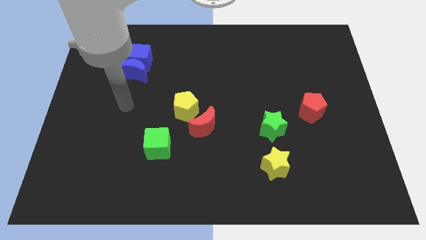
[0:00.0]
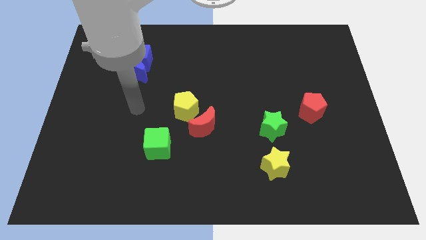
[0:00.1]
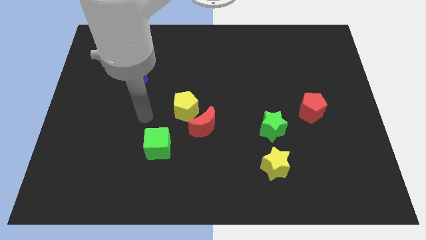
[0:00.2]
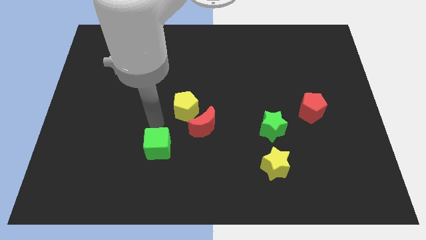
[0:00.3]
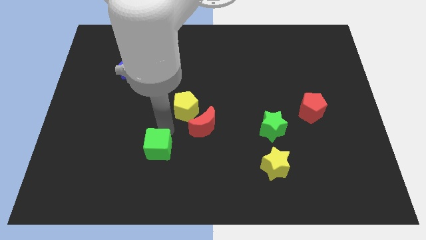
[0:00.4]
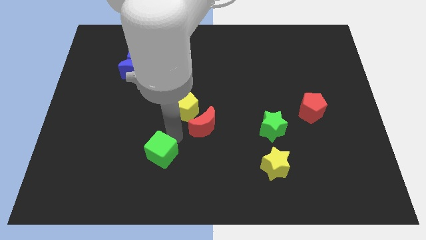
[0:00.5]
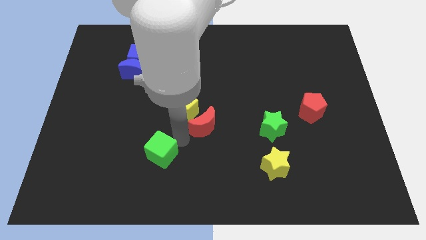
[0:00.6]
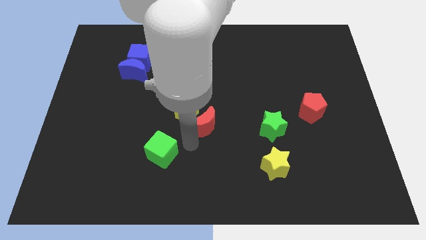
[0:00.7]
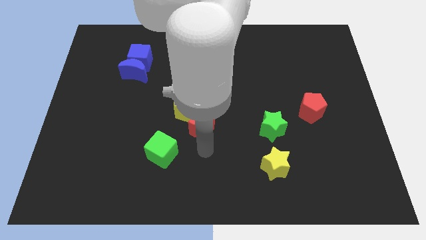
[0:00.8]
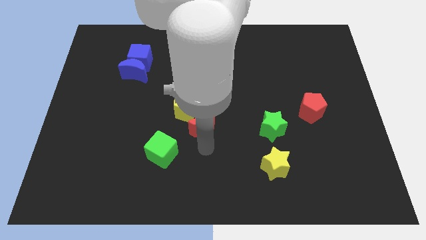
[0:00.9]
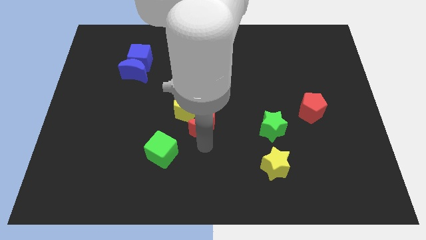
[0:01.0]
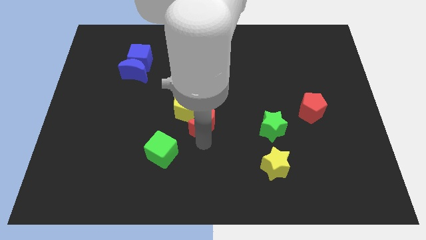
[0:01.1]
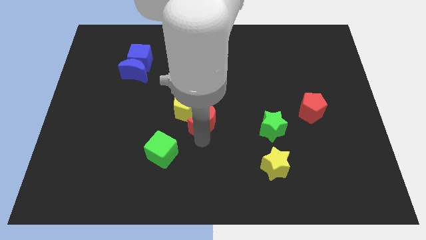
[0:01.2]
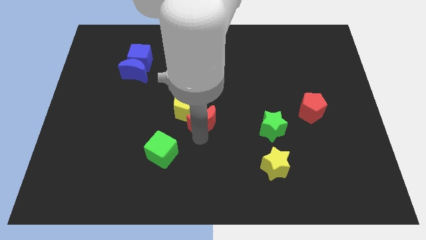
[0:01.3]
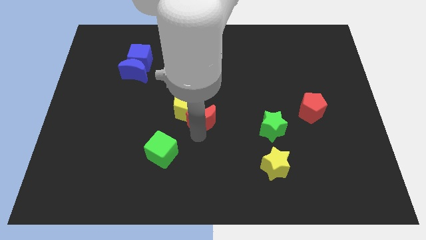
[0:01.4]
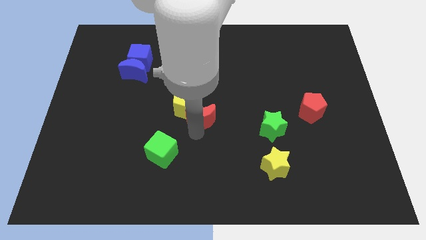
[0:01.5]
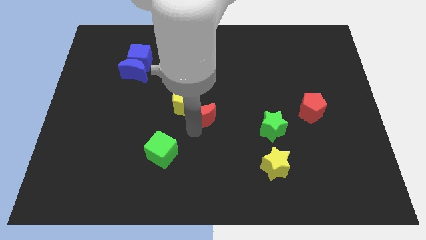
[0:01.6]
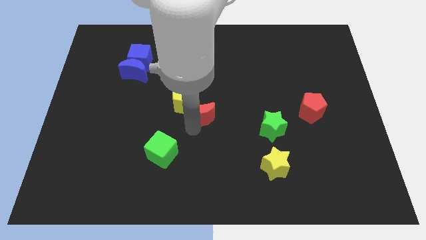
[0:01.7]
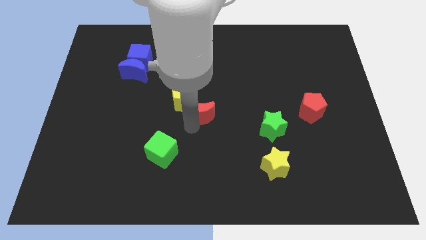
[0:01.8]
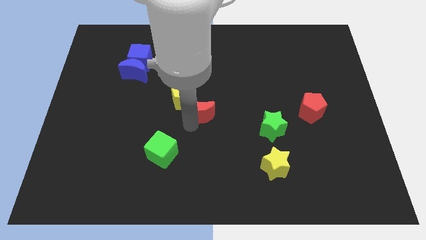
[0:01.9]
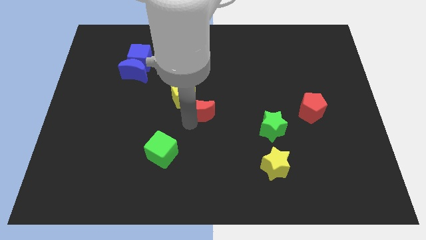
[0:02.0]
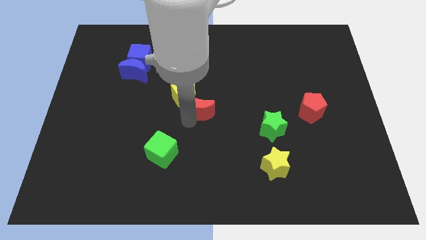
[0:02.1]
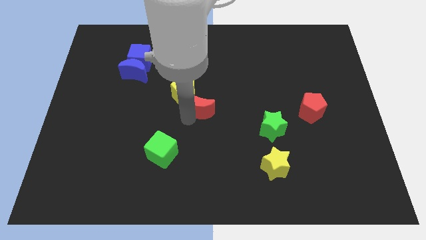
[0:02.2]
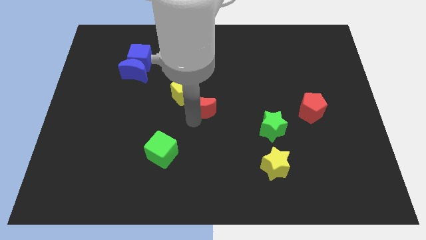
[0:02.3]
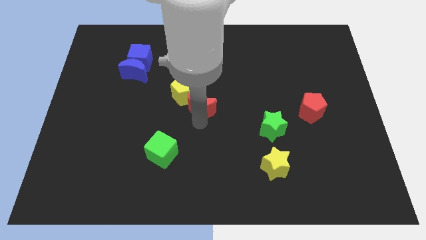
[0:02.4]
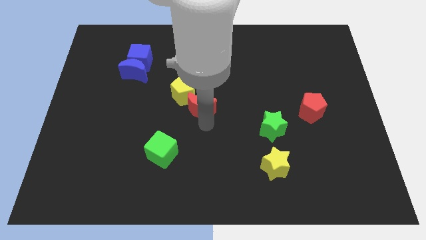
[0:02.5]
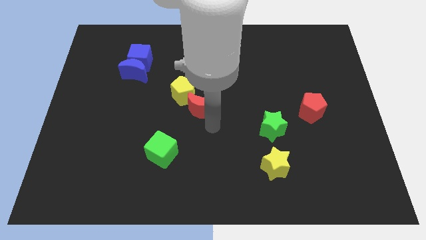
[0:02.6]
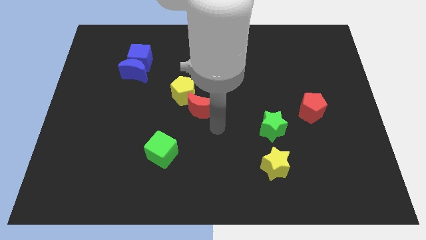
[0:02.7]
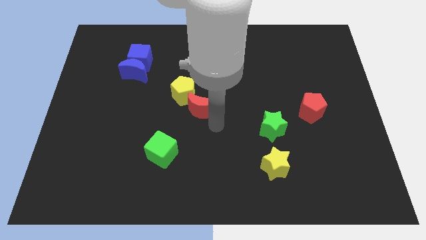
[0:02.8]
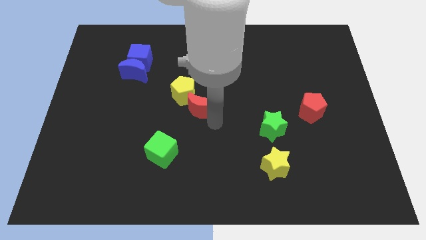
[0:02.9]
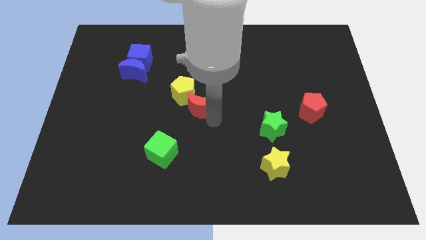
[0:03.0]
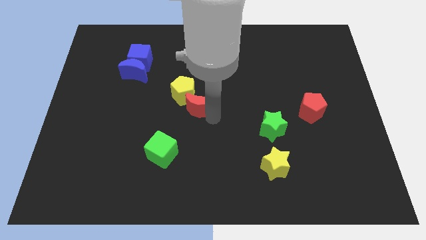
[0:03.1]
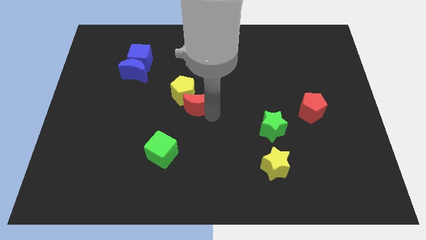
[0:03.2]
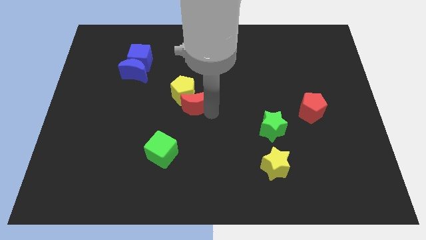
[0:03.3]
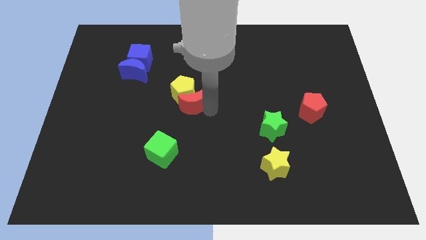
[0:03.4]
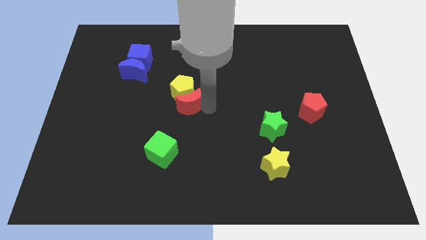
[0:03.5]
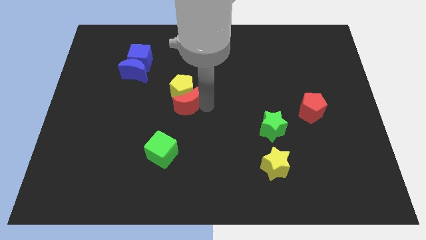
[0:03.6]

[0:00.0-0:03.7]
move the red moon a little diagonally upwards and left

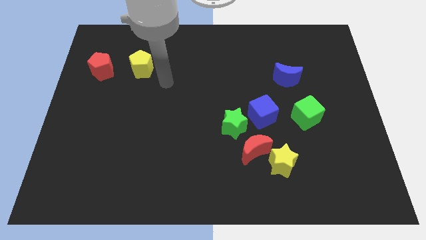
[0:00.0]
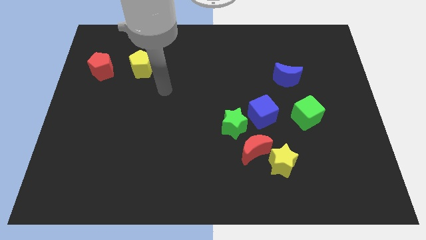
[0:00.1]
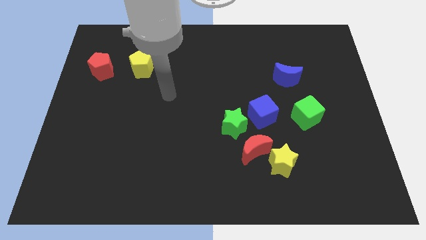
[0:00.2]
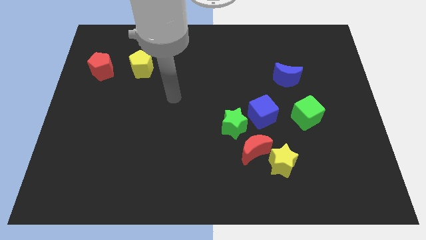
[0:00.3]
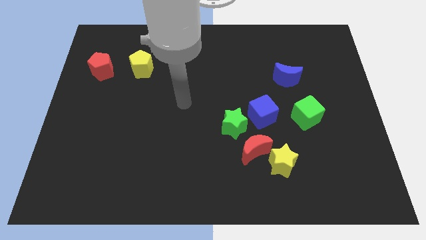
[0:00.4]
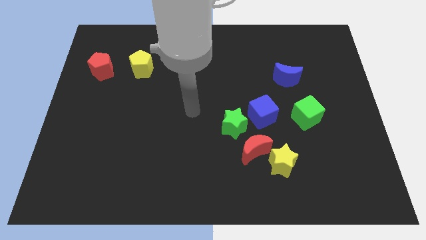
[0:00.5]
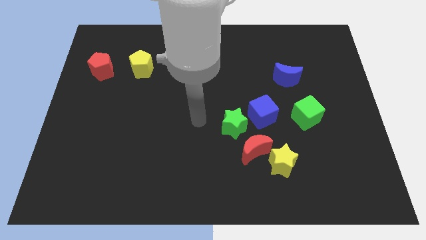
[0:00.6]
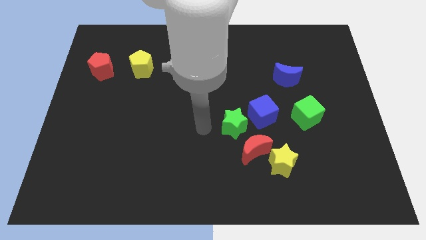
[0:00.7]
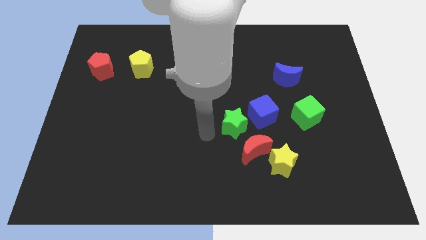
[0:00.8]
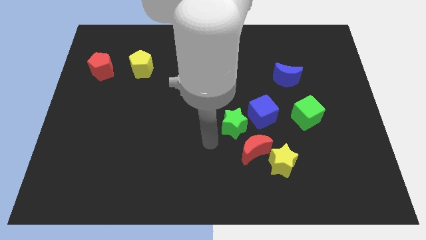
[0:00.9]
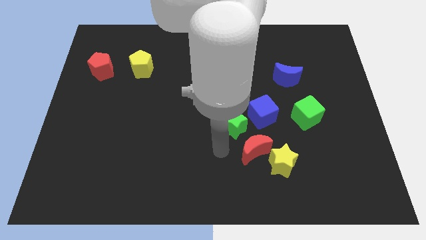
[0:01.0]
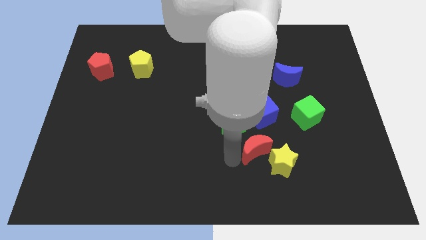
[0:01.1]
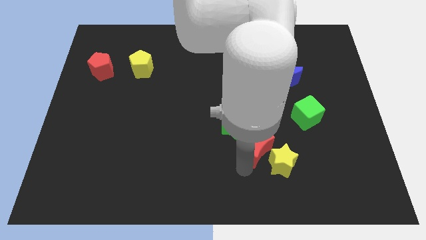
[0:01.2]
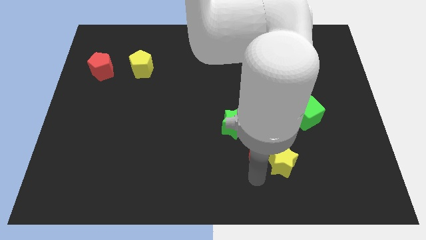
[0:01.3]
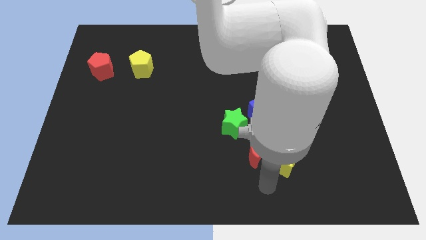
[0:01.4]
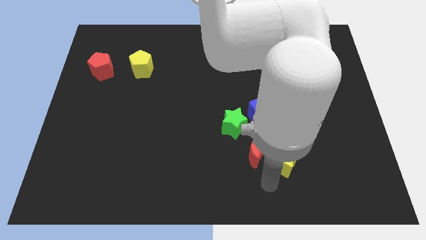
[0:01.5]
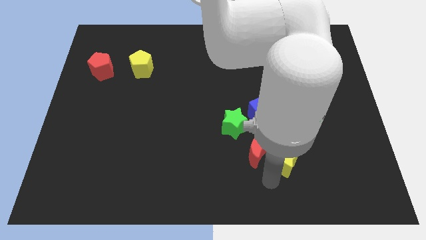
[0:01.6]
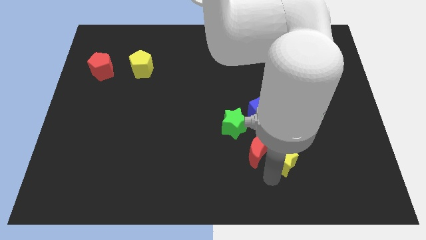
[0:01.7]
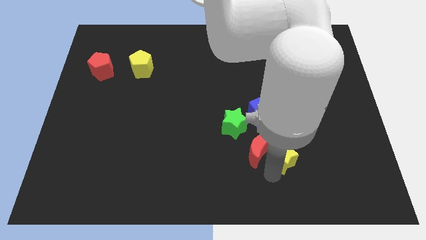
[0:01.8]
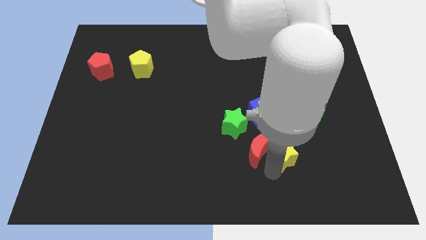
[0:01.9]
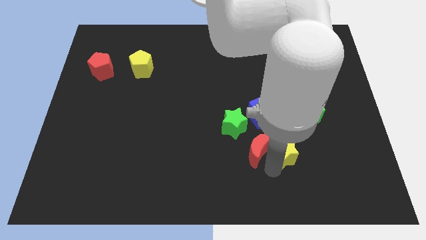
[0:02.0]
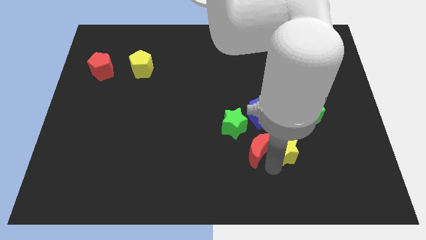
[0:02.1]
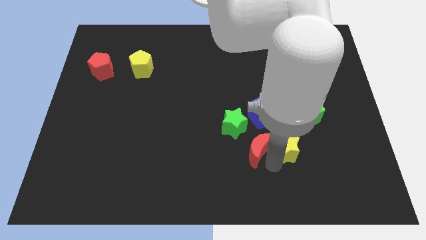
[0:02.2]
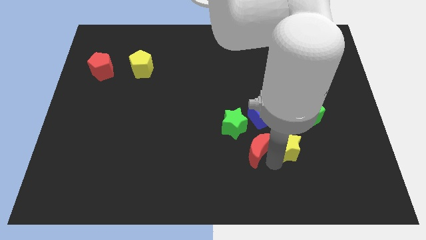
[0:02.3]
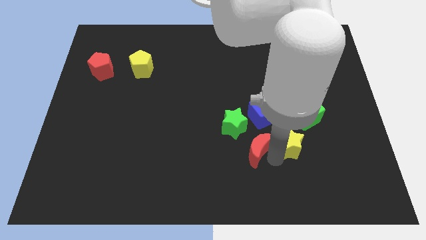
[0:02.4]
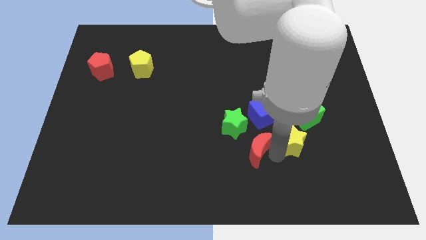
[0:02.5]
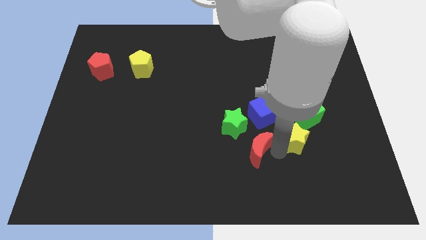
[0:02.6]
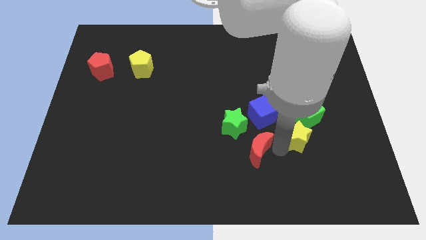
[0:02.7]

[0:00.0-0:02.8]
slightly move the yellow star up and to the right

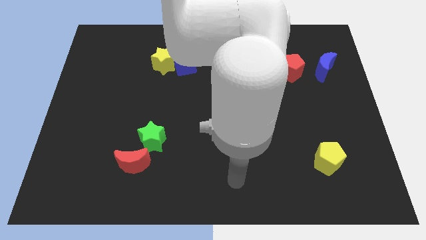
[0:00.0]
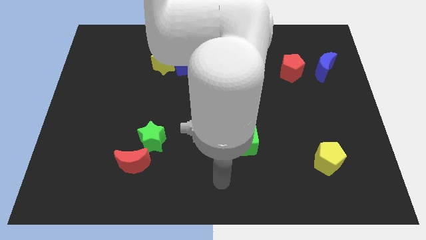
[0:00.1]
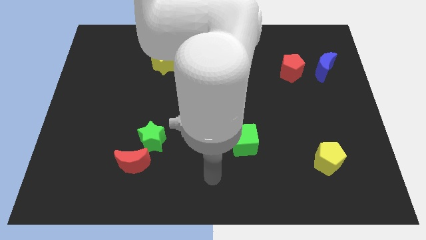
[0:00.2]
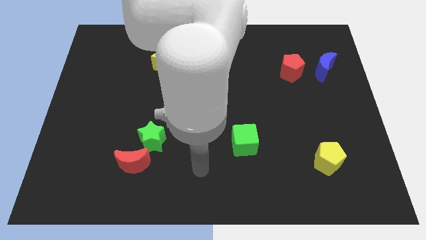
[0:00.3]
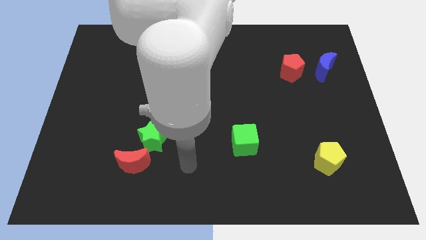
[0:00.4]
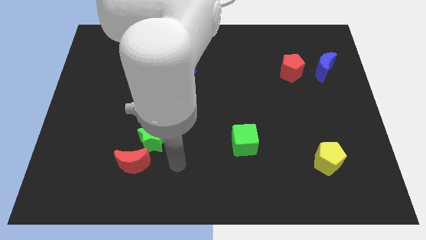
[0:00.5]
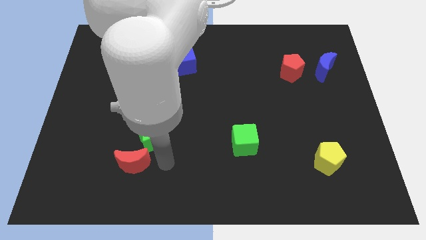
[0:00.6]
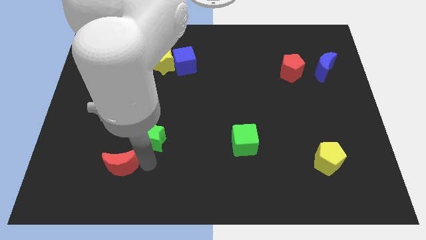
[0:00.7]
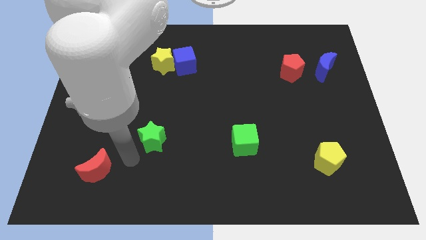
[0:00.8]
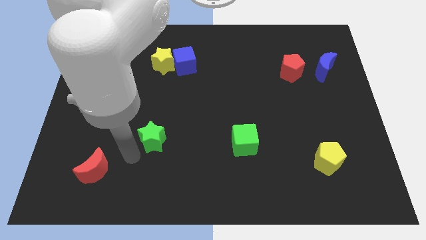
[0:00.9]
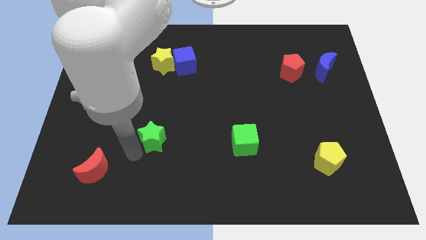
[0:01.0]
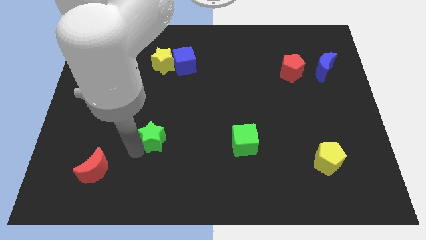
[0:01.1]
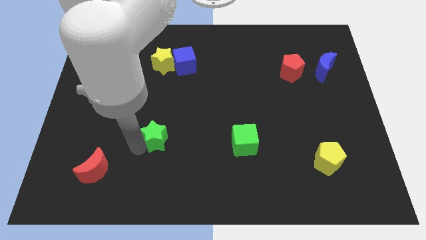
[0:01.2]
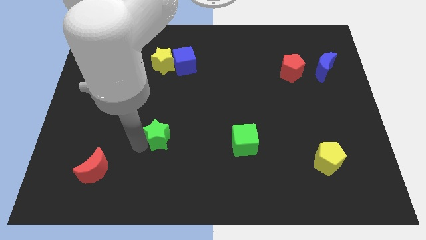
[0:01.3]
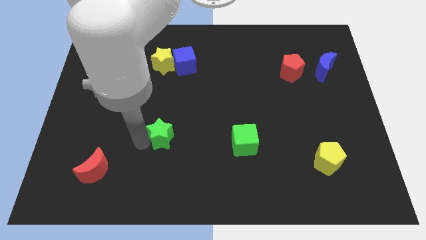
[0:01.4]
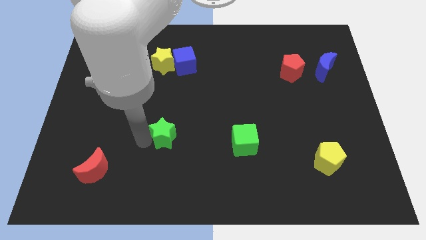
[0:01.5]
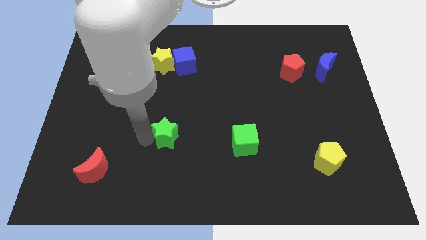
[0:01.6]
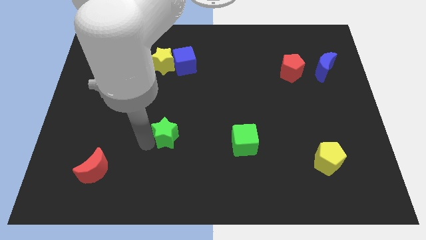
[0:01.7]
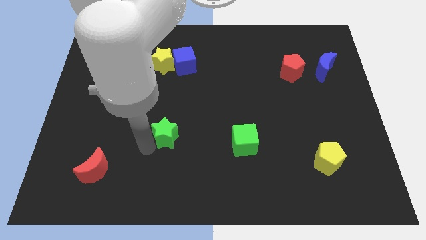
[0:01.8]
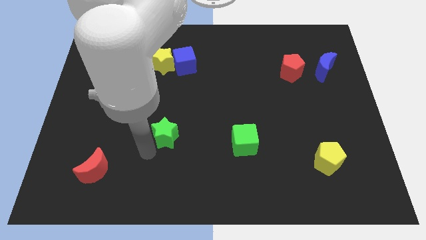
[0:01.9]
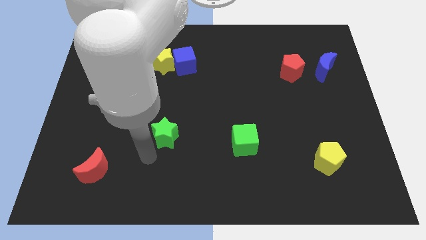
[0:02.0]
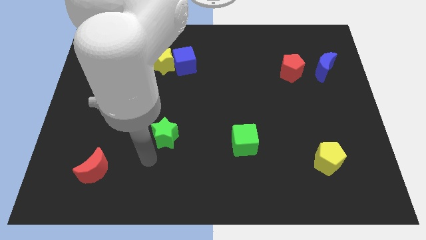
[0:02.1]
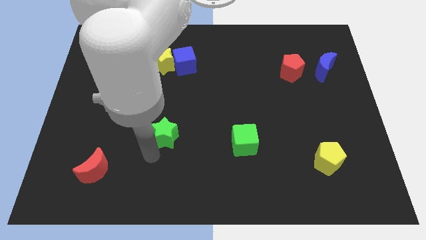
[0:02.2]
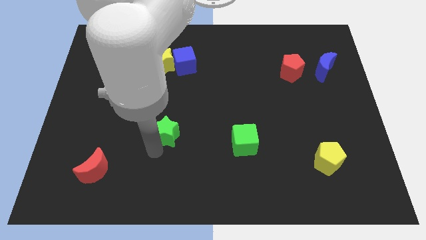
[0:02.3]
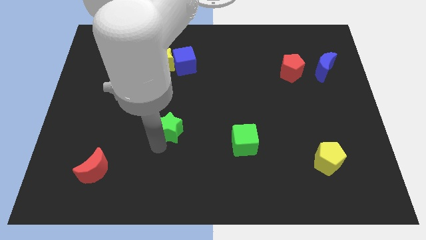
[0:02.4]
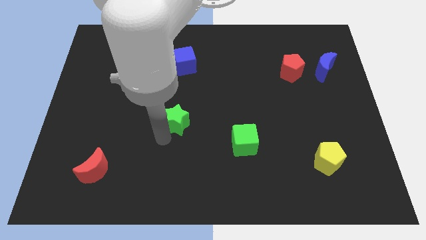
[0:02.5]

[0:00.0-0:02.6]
move the green star upwards and right somewhat
